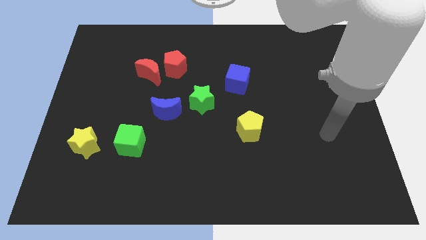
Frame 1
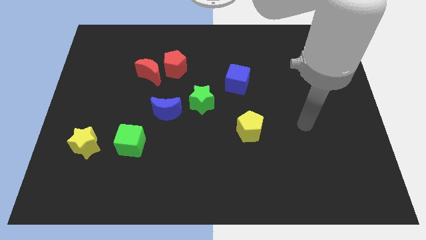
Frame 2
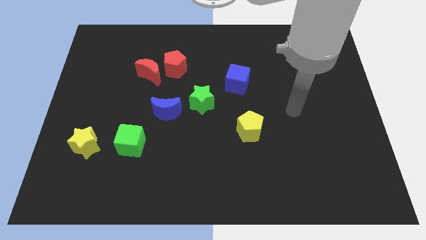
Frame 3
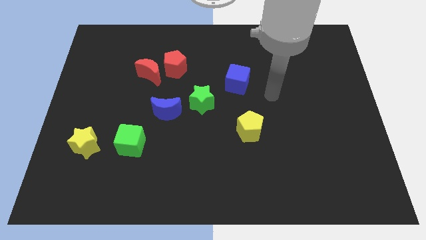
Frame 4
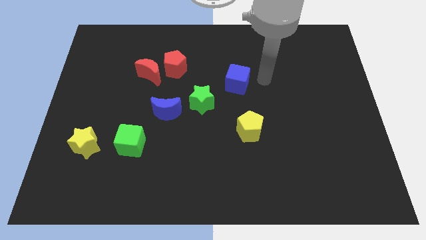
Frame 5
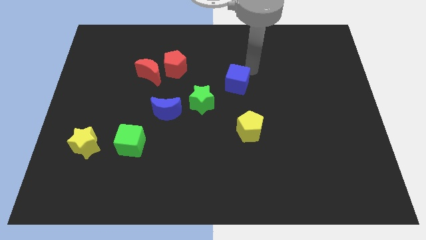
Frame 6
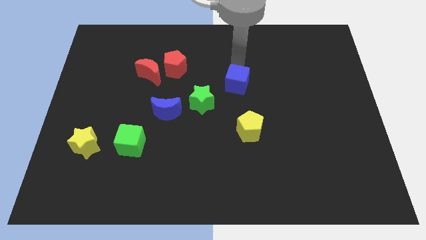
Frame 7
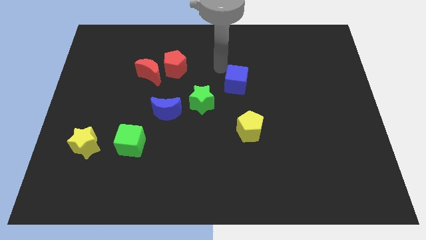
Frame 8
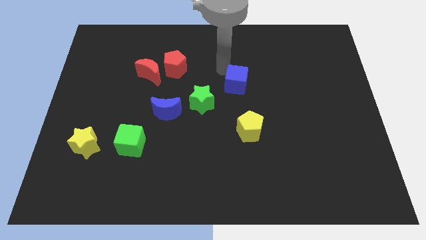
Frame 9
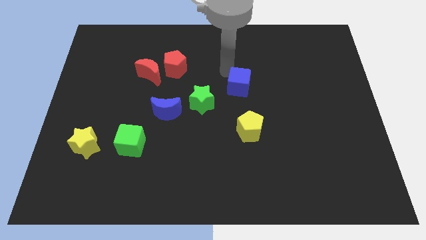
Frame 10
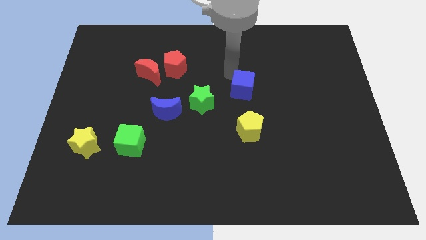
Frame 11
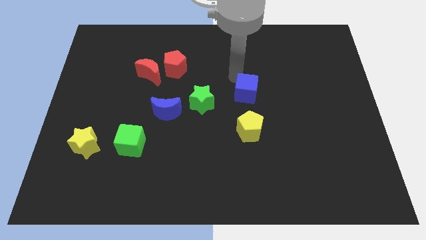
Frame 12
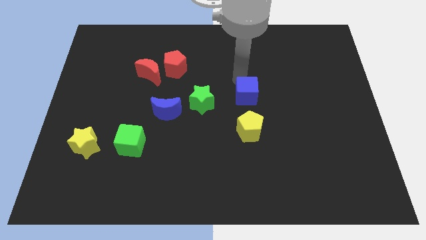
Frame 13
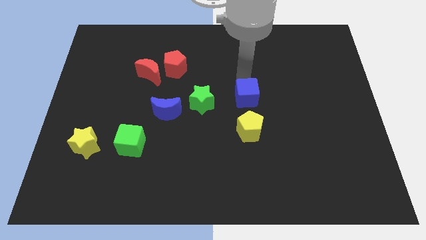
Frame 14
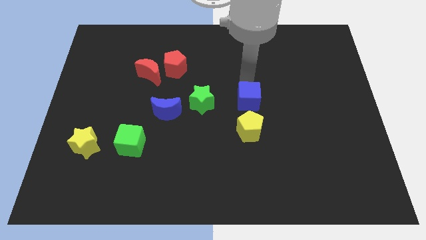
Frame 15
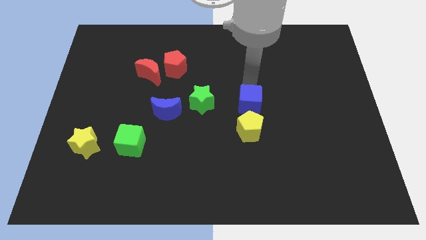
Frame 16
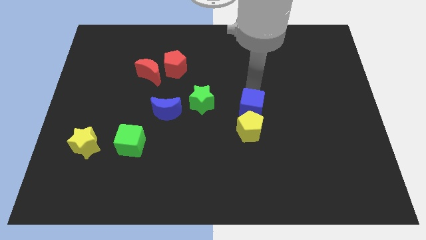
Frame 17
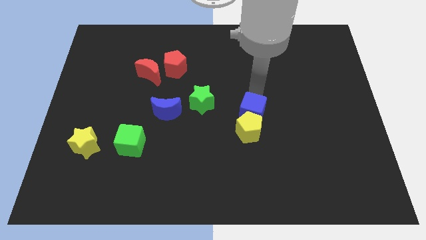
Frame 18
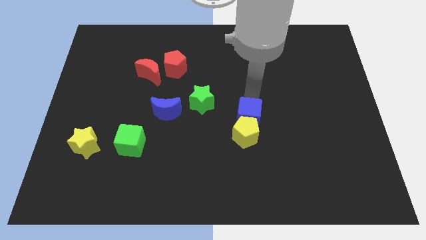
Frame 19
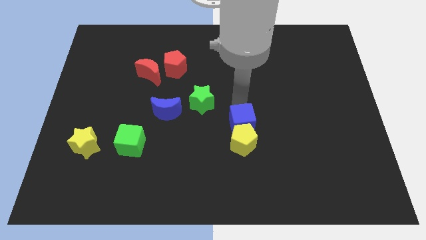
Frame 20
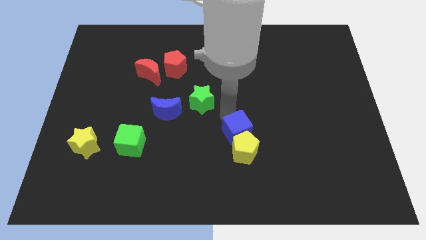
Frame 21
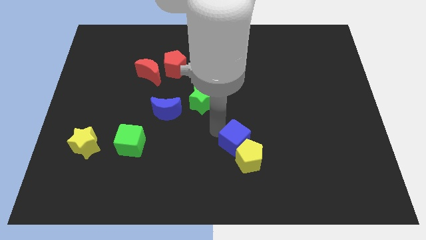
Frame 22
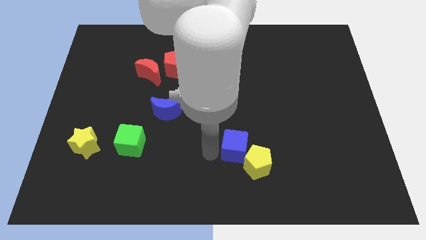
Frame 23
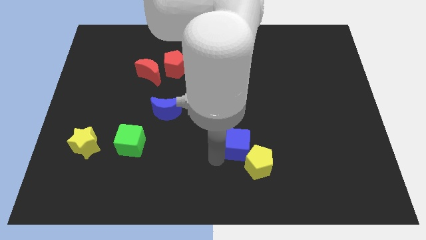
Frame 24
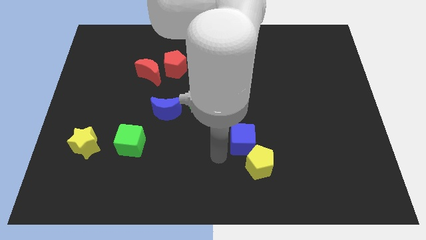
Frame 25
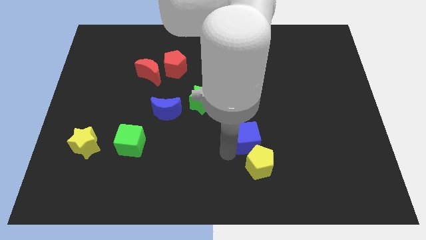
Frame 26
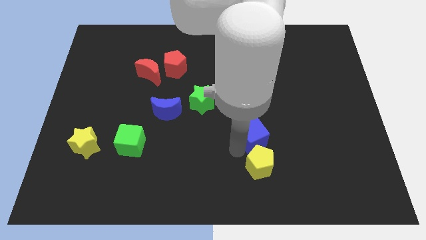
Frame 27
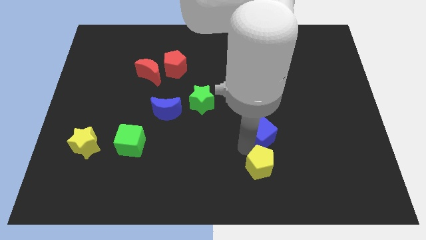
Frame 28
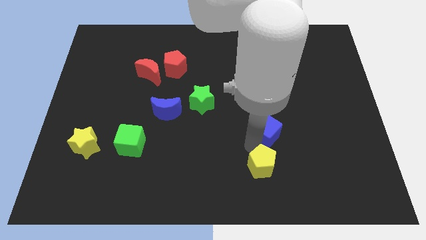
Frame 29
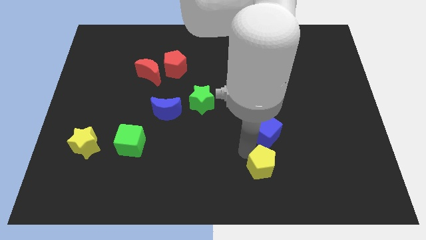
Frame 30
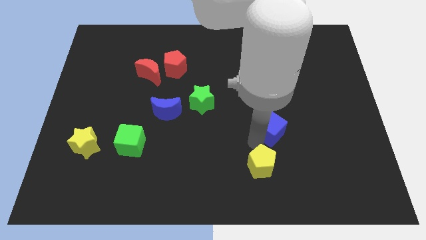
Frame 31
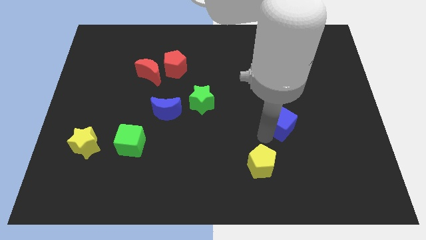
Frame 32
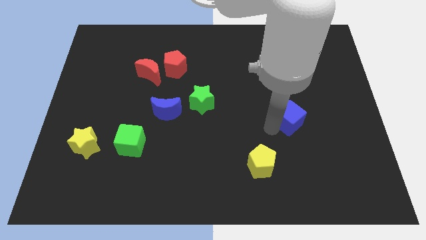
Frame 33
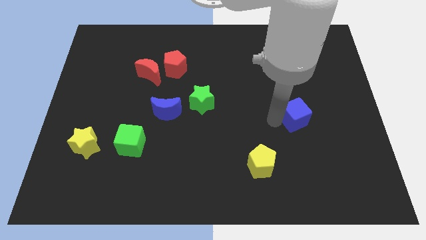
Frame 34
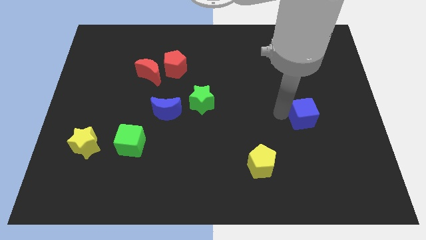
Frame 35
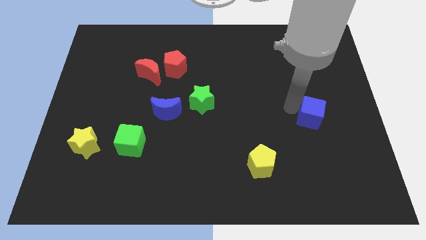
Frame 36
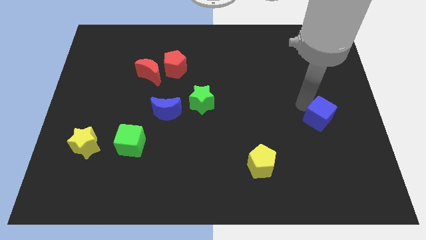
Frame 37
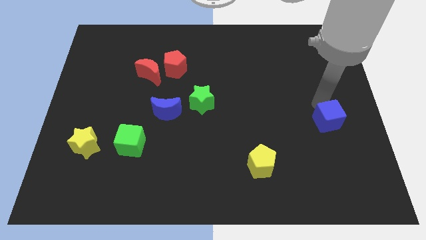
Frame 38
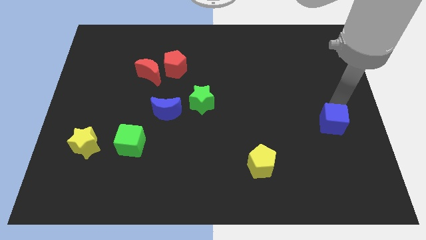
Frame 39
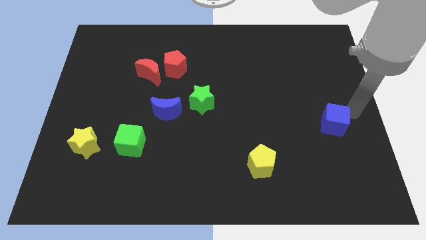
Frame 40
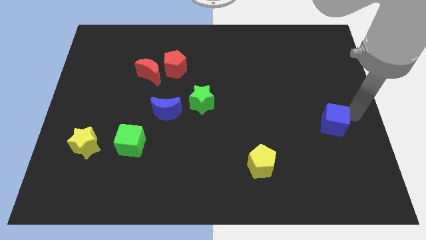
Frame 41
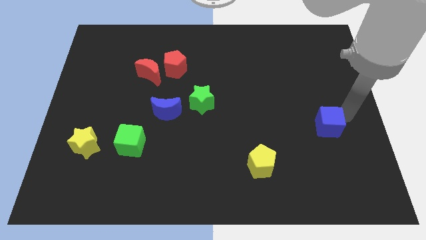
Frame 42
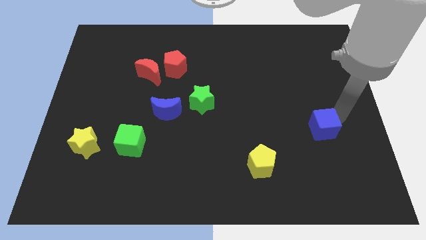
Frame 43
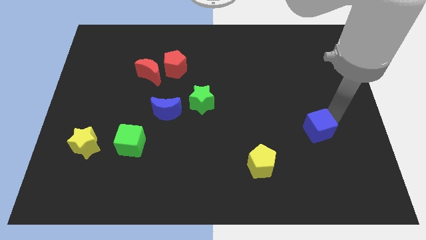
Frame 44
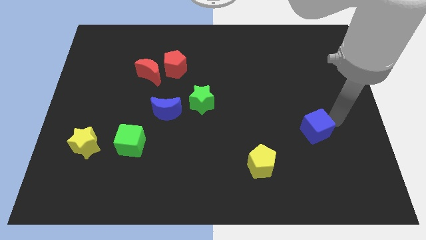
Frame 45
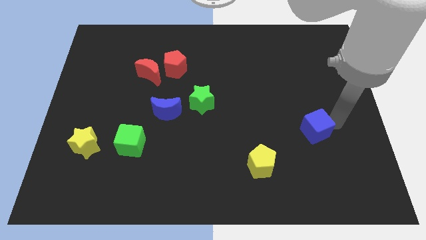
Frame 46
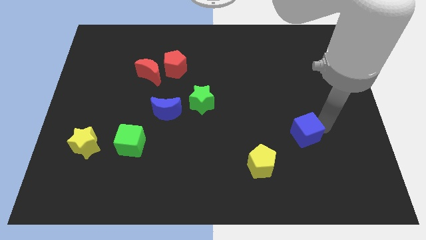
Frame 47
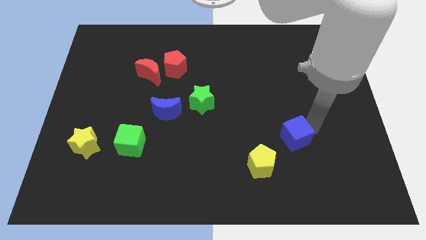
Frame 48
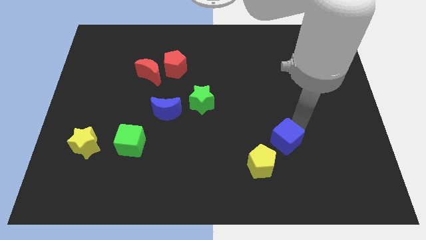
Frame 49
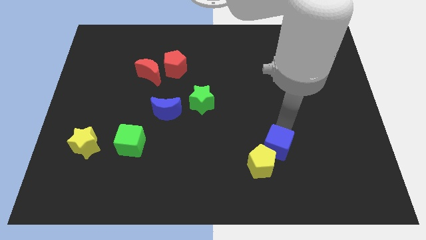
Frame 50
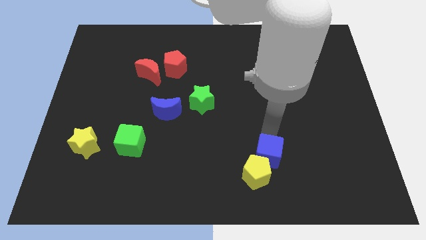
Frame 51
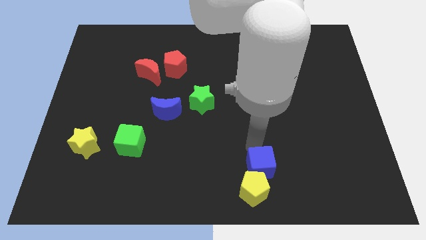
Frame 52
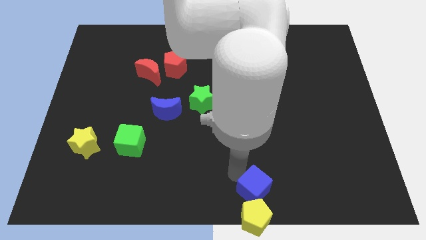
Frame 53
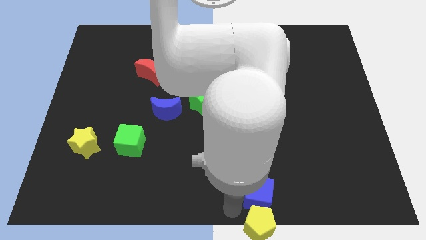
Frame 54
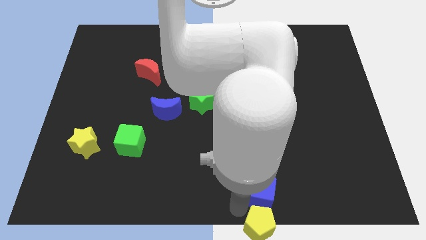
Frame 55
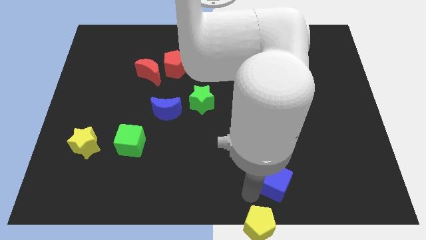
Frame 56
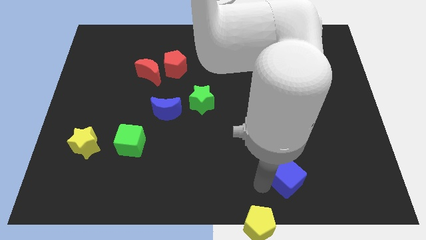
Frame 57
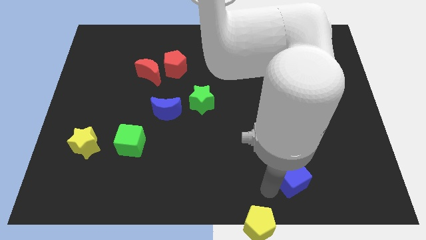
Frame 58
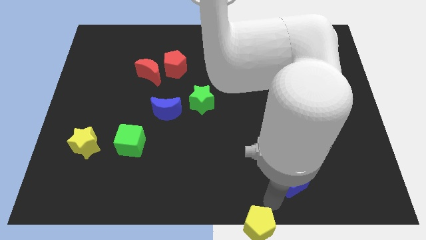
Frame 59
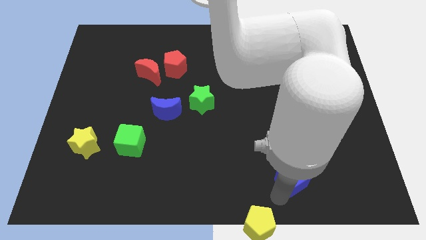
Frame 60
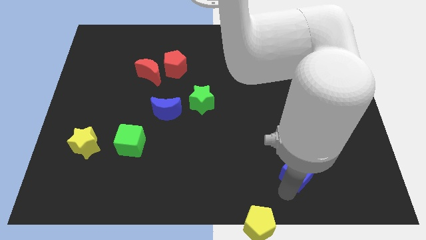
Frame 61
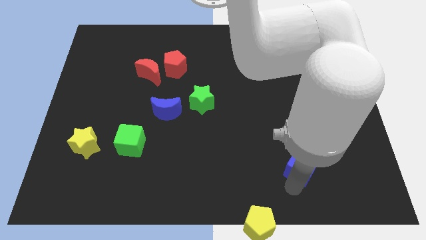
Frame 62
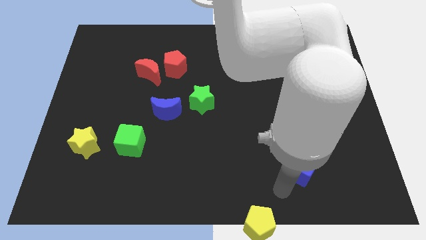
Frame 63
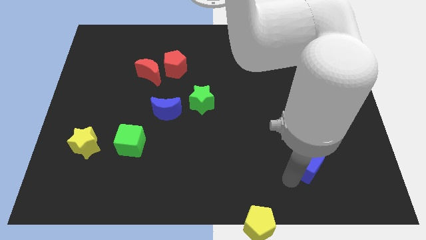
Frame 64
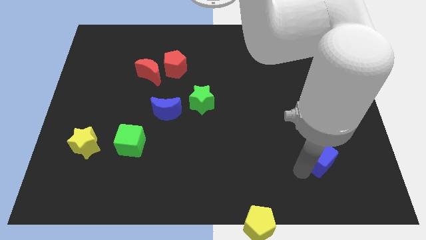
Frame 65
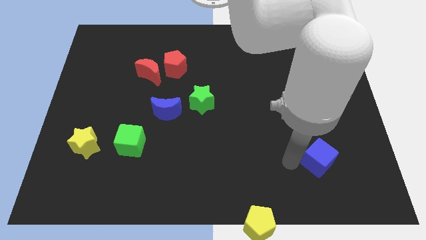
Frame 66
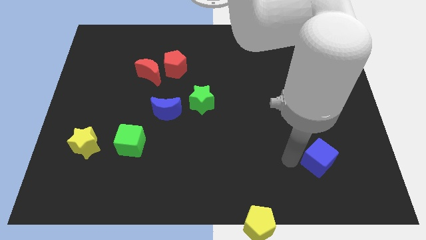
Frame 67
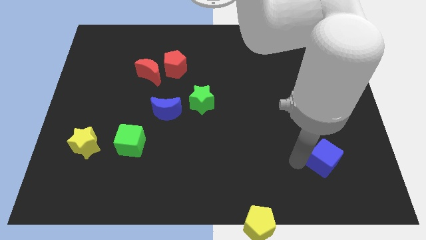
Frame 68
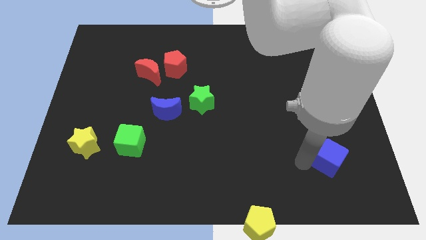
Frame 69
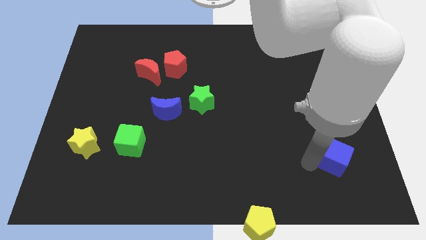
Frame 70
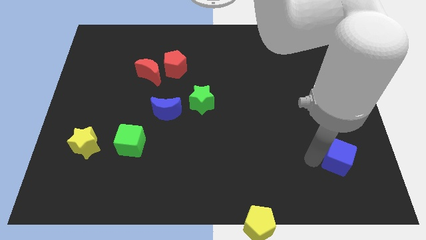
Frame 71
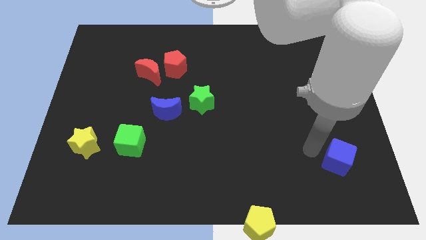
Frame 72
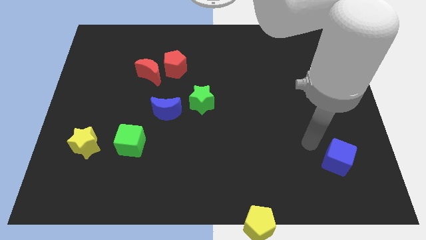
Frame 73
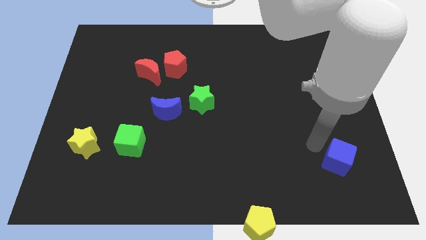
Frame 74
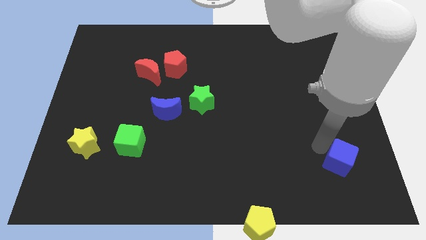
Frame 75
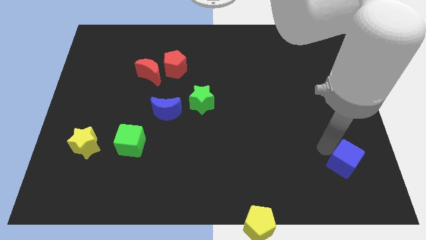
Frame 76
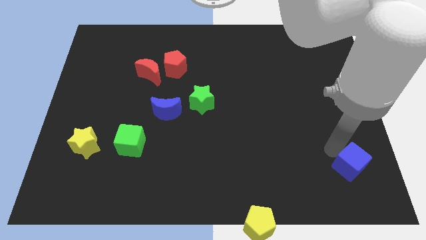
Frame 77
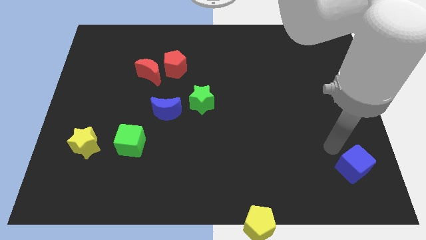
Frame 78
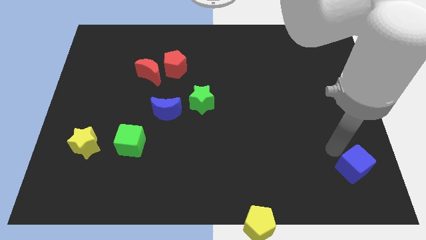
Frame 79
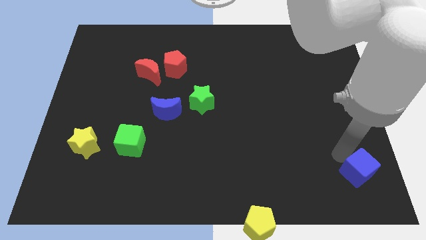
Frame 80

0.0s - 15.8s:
move the blue cube to the bottom right
